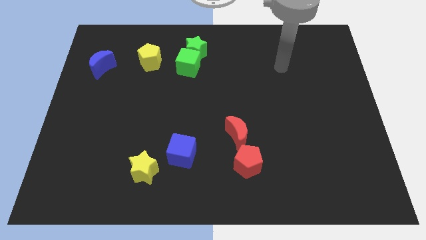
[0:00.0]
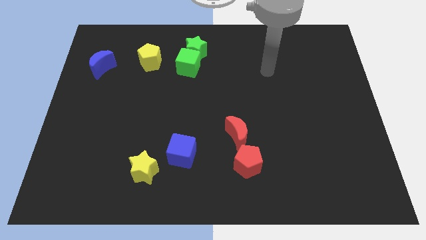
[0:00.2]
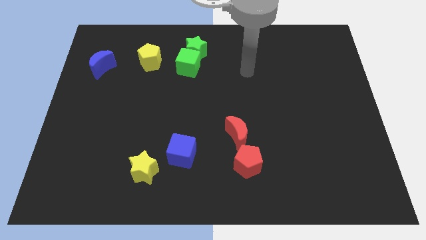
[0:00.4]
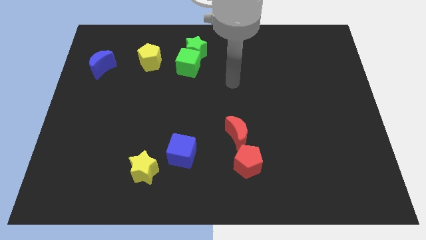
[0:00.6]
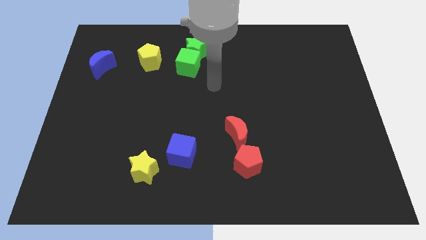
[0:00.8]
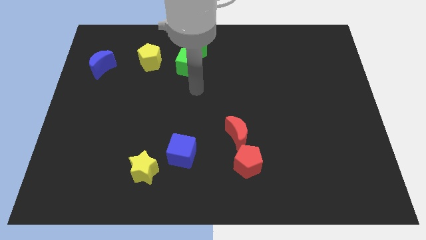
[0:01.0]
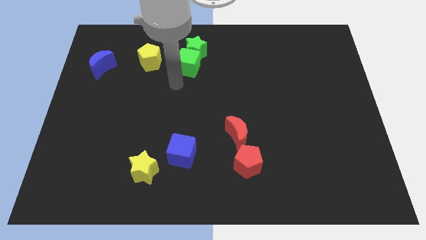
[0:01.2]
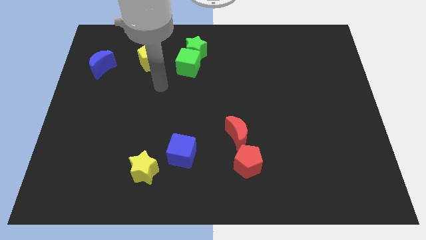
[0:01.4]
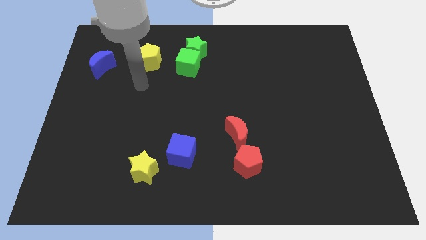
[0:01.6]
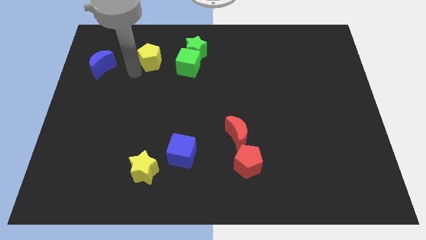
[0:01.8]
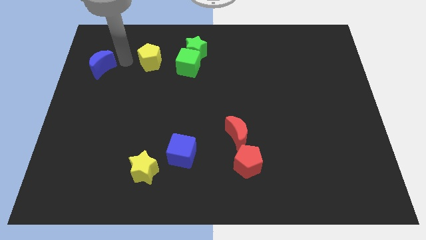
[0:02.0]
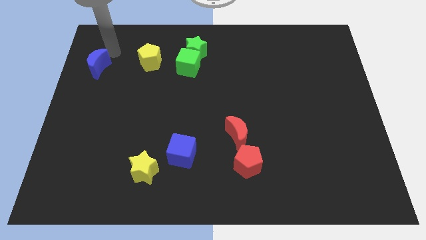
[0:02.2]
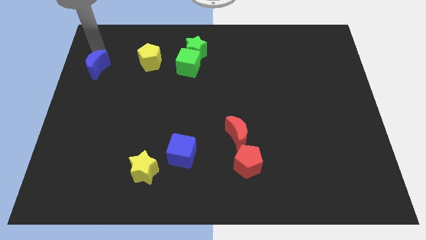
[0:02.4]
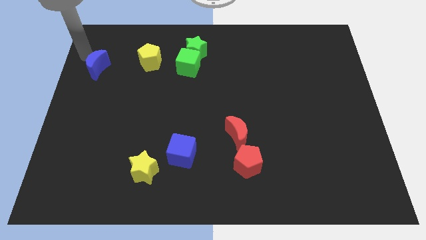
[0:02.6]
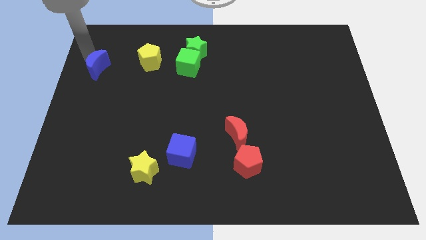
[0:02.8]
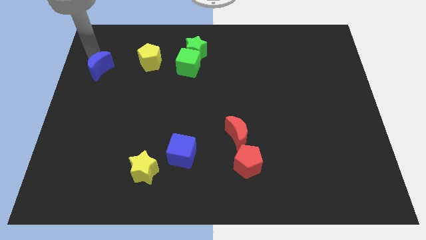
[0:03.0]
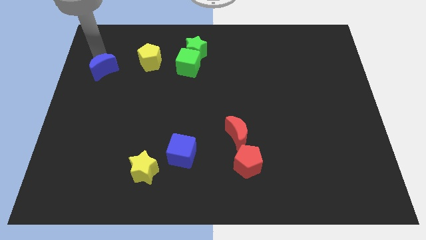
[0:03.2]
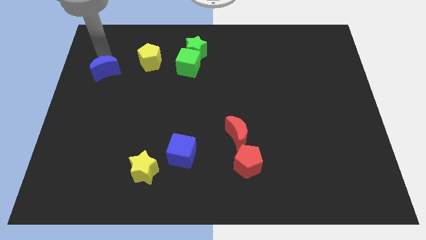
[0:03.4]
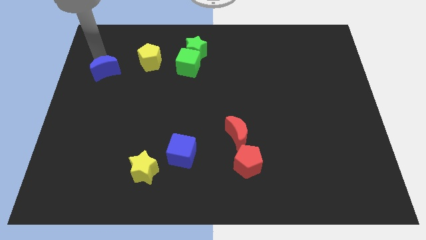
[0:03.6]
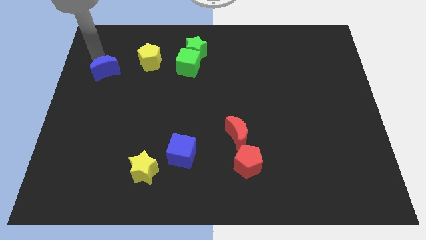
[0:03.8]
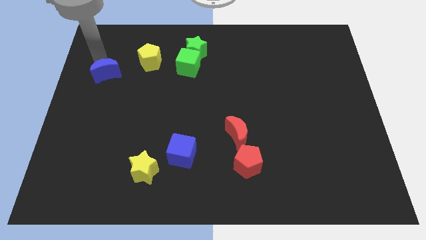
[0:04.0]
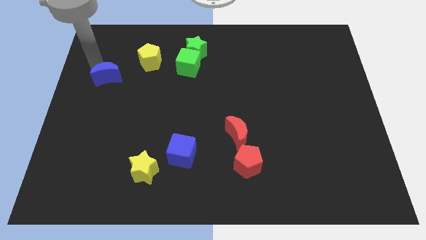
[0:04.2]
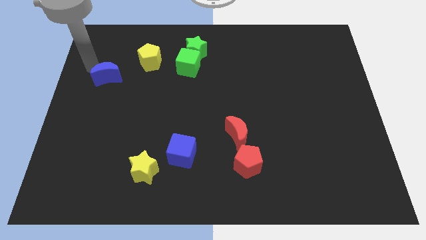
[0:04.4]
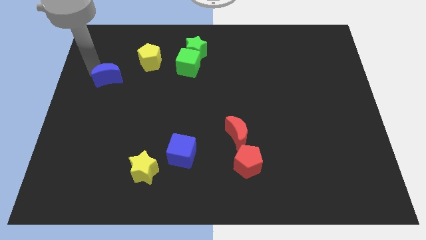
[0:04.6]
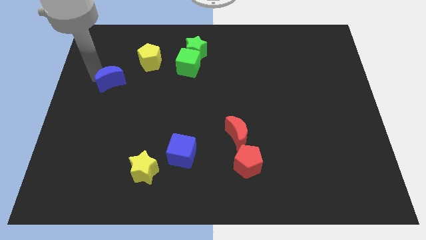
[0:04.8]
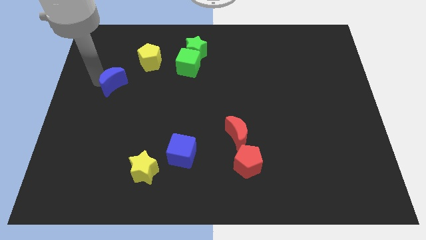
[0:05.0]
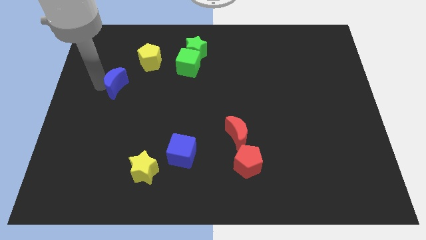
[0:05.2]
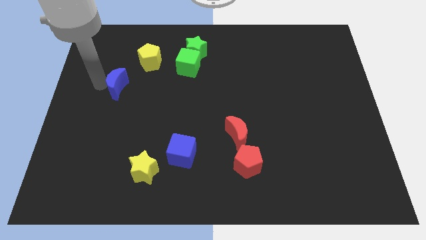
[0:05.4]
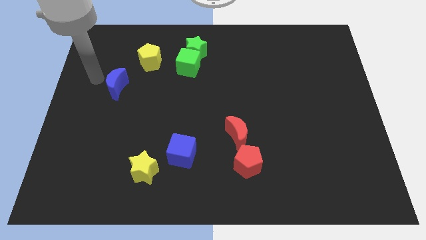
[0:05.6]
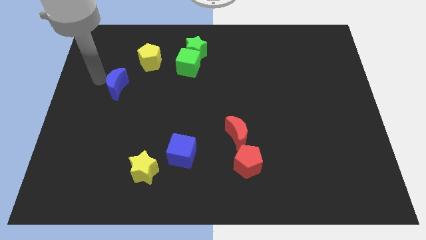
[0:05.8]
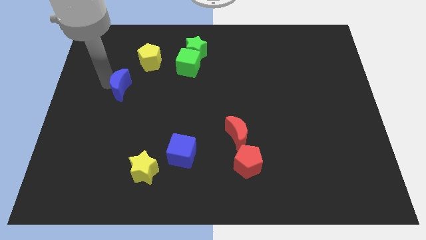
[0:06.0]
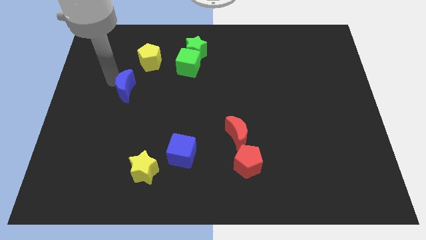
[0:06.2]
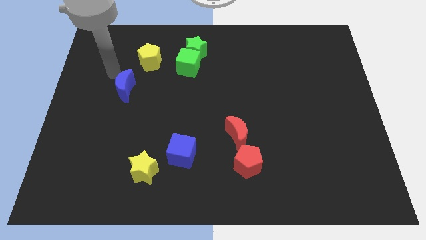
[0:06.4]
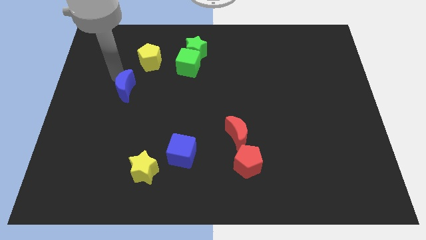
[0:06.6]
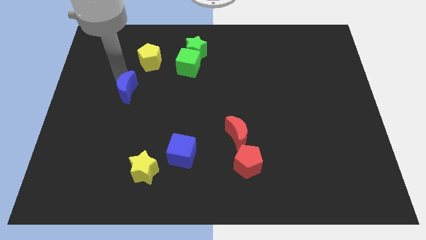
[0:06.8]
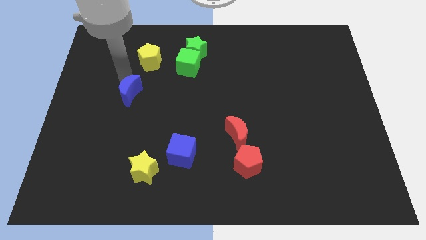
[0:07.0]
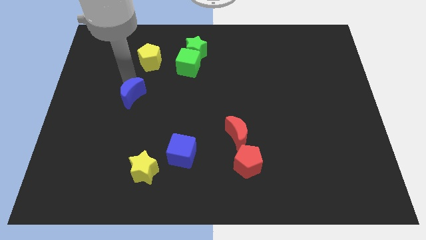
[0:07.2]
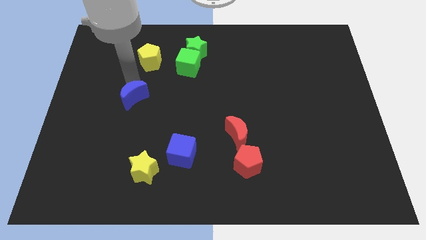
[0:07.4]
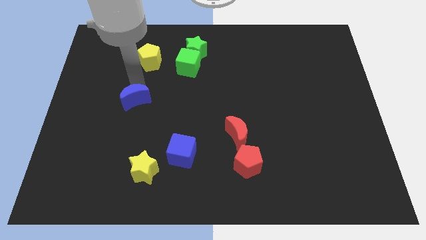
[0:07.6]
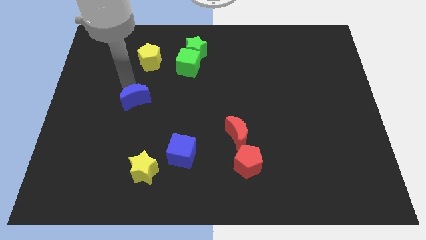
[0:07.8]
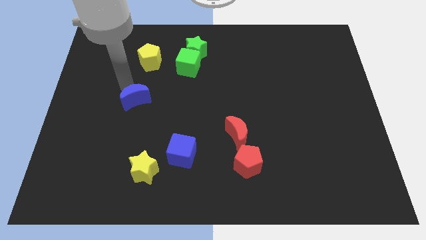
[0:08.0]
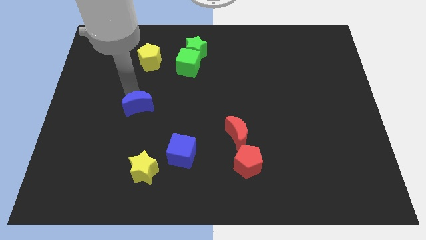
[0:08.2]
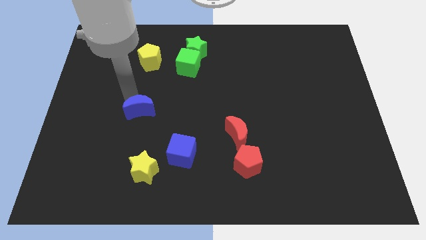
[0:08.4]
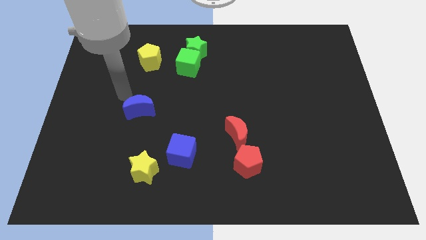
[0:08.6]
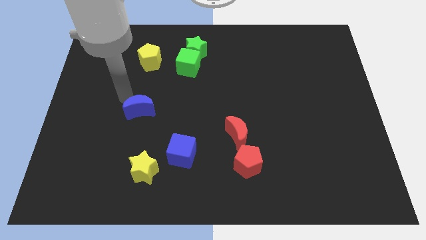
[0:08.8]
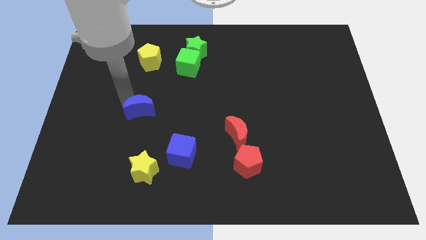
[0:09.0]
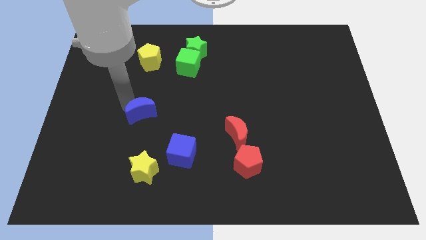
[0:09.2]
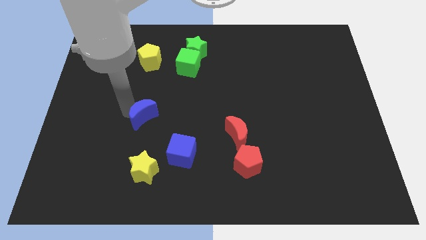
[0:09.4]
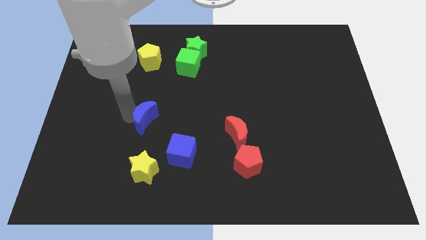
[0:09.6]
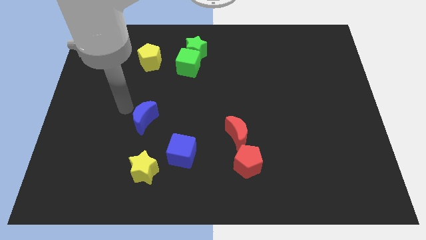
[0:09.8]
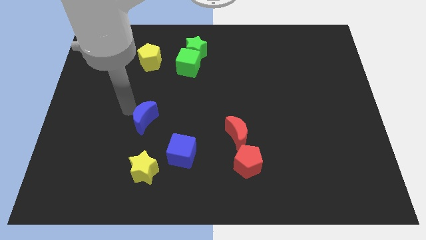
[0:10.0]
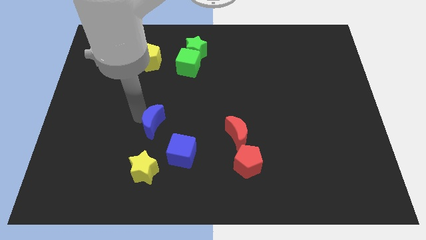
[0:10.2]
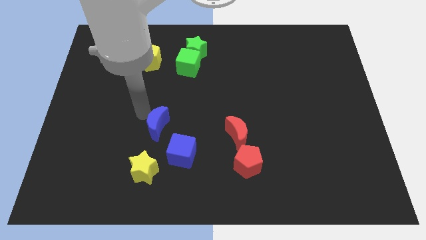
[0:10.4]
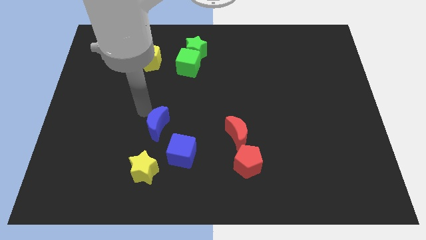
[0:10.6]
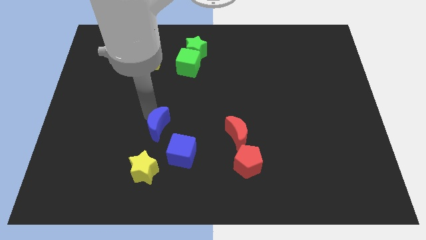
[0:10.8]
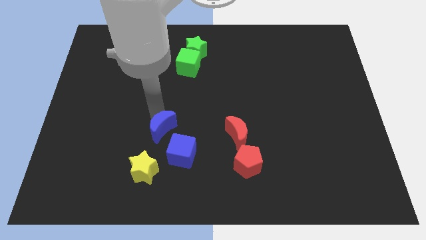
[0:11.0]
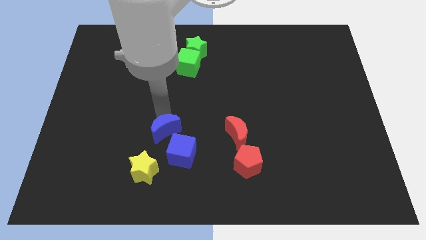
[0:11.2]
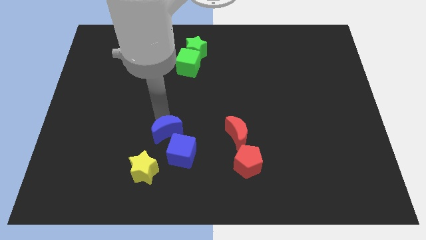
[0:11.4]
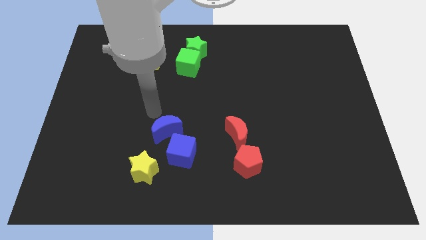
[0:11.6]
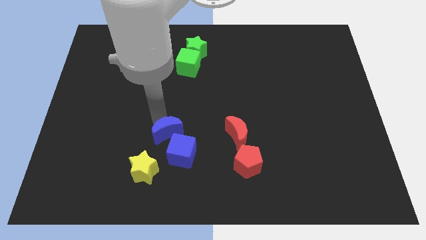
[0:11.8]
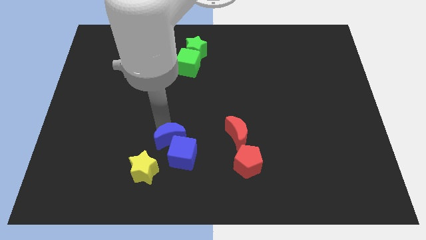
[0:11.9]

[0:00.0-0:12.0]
put the blue moon close to the blue cube

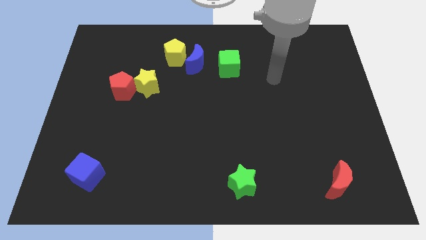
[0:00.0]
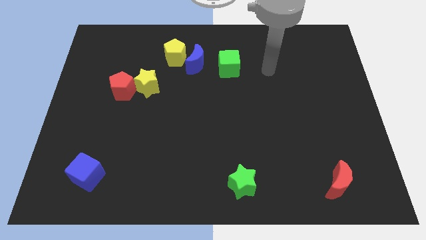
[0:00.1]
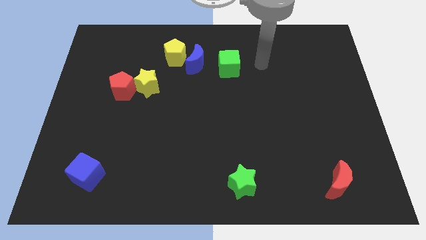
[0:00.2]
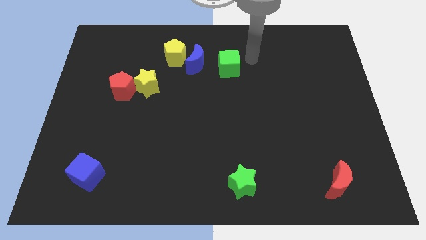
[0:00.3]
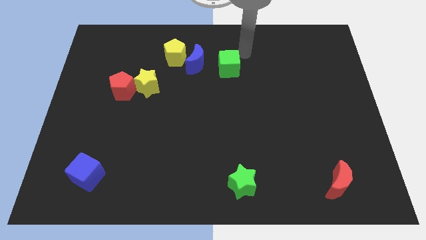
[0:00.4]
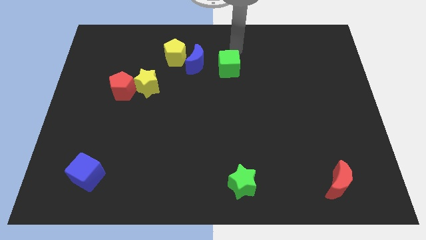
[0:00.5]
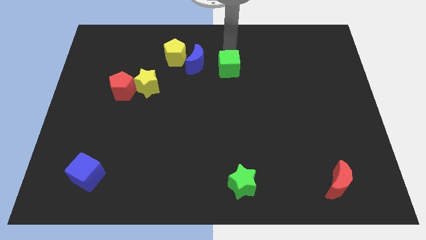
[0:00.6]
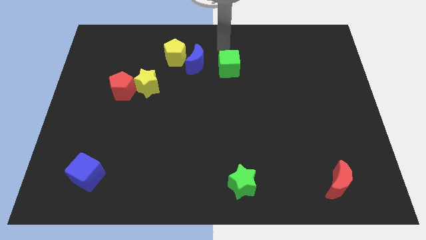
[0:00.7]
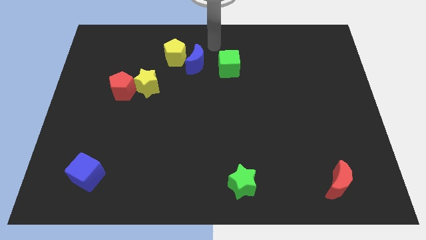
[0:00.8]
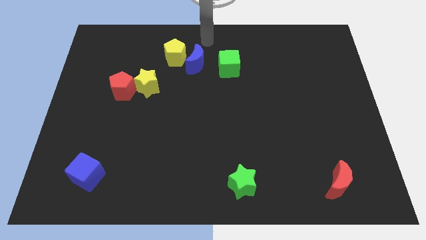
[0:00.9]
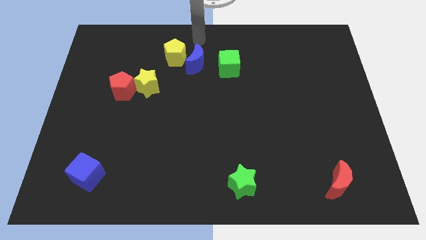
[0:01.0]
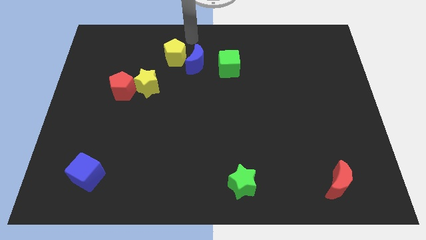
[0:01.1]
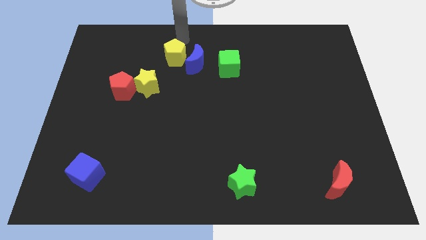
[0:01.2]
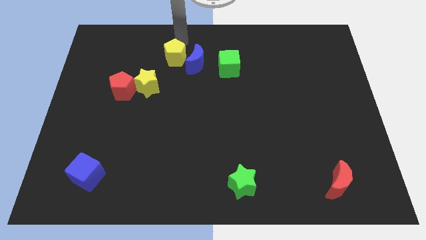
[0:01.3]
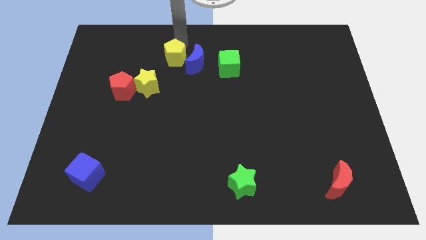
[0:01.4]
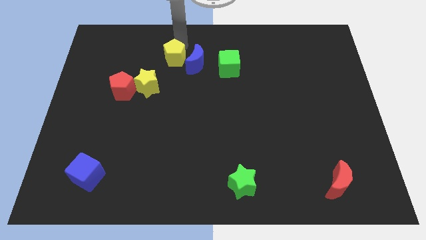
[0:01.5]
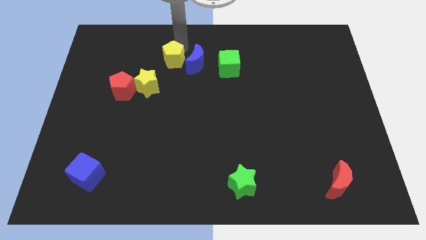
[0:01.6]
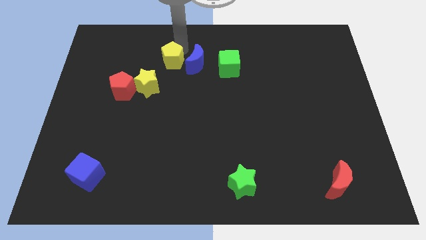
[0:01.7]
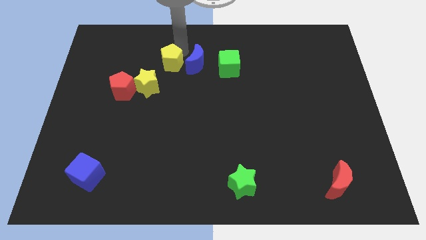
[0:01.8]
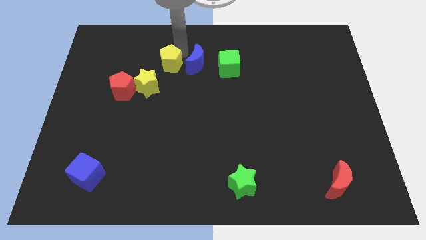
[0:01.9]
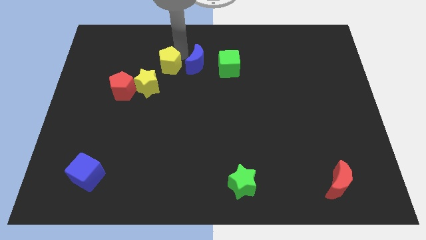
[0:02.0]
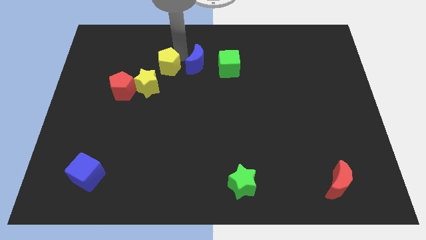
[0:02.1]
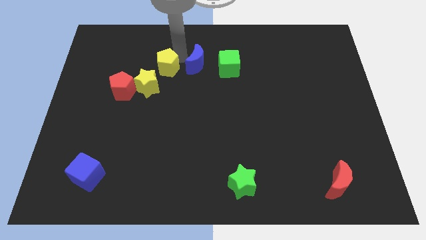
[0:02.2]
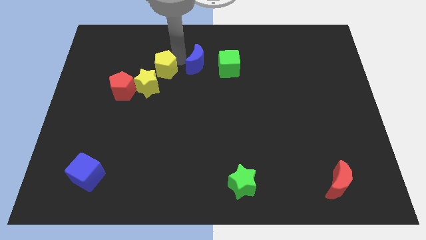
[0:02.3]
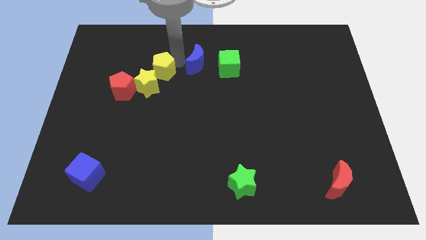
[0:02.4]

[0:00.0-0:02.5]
slide the yellow pentagon close to the yellow star
